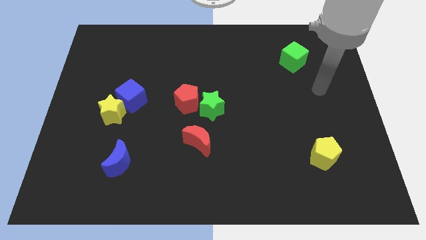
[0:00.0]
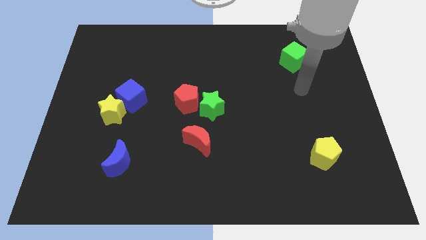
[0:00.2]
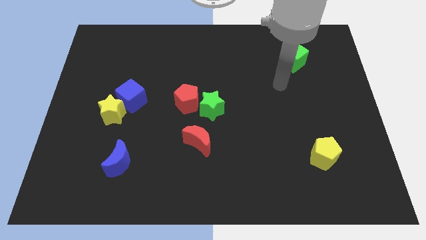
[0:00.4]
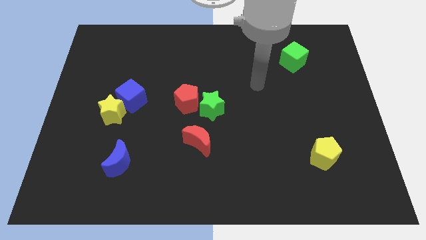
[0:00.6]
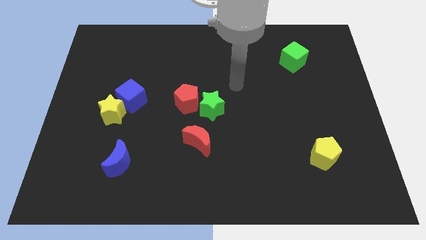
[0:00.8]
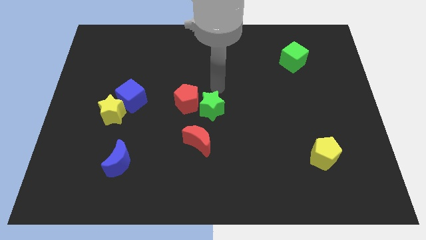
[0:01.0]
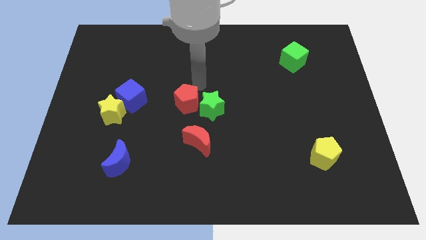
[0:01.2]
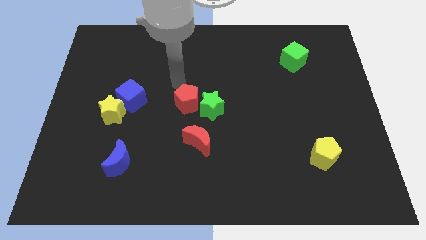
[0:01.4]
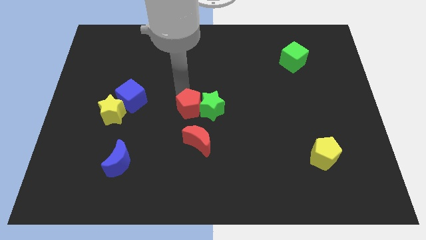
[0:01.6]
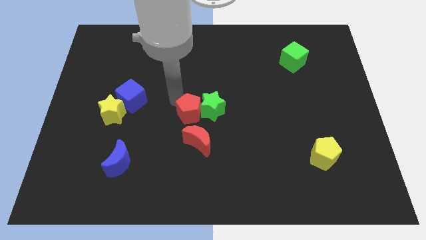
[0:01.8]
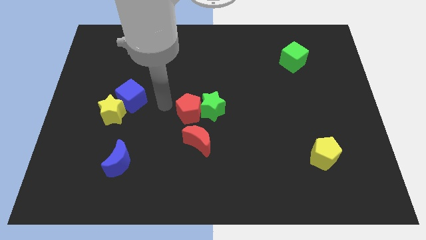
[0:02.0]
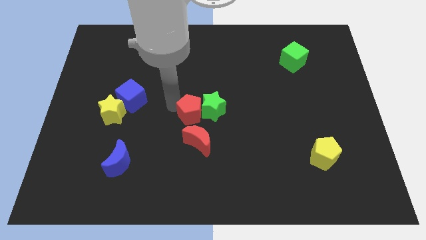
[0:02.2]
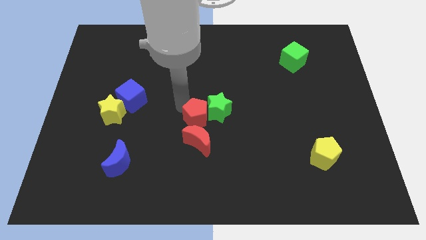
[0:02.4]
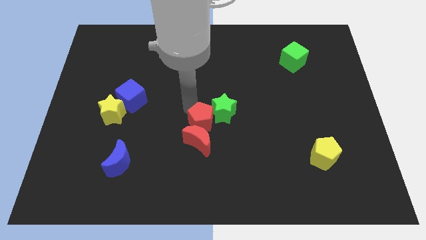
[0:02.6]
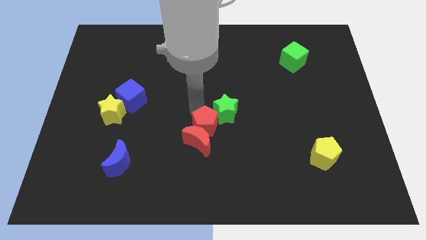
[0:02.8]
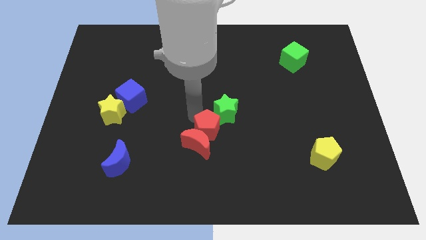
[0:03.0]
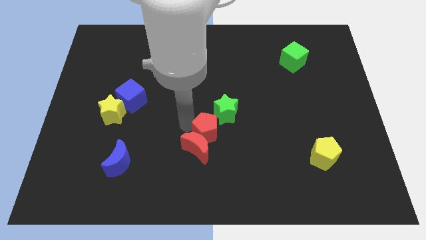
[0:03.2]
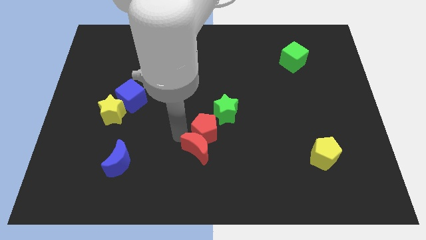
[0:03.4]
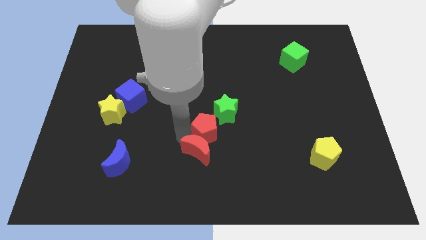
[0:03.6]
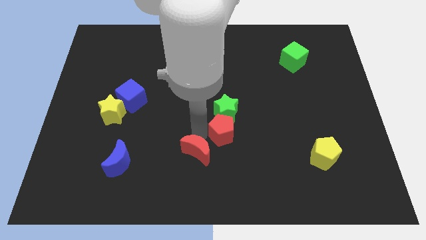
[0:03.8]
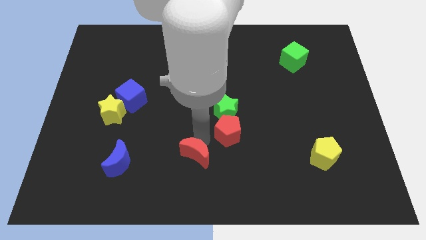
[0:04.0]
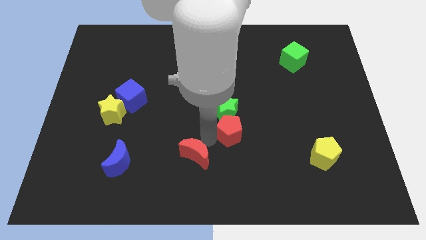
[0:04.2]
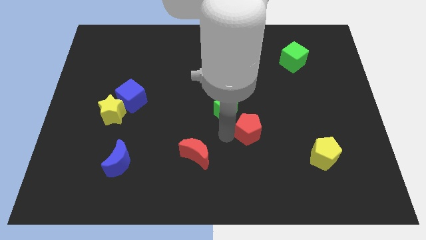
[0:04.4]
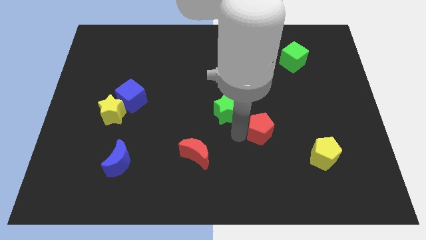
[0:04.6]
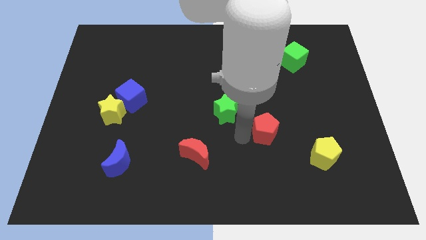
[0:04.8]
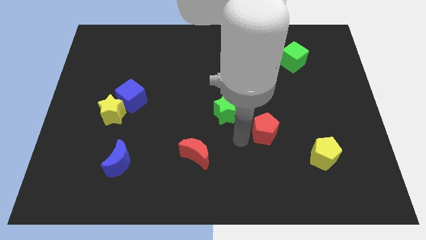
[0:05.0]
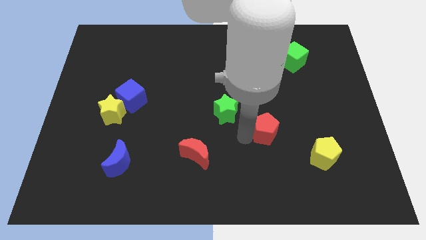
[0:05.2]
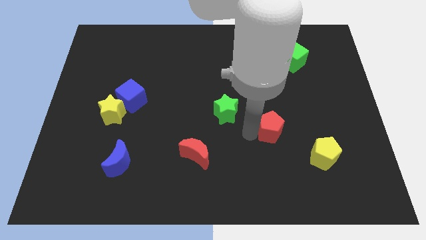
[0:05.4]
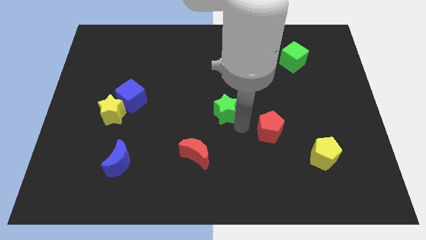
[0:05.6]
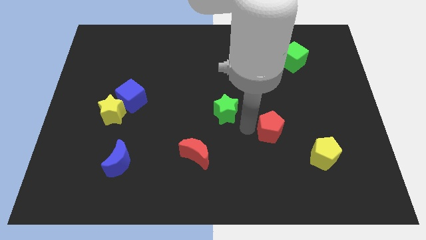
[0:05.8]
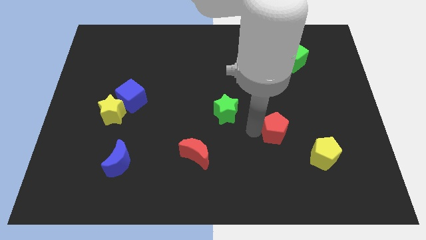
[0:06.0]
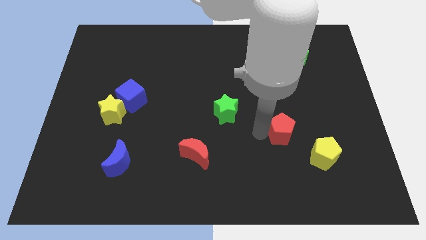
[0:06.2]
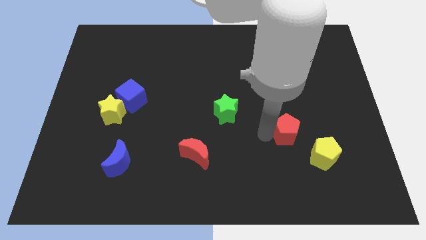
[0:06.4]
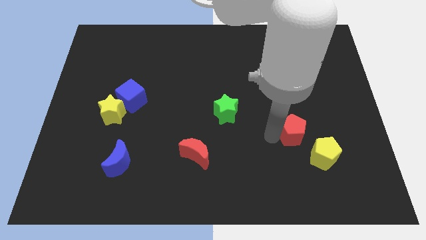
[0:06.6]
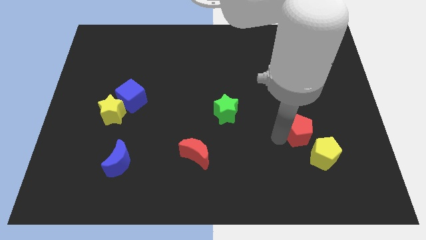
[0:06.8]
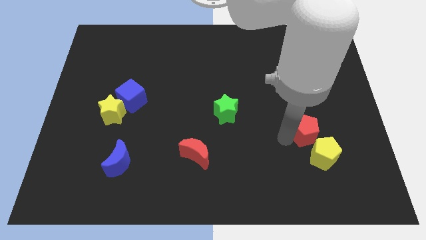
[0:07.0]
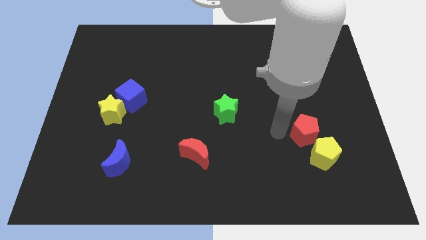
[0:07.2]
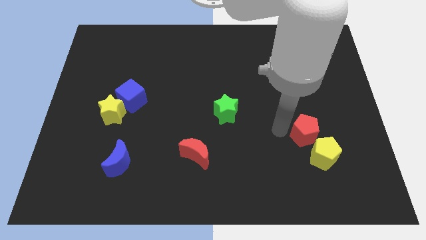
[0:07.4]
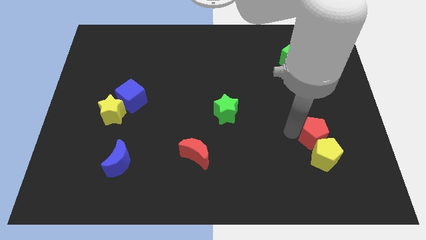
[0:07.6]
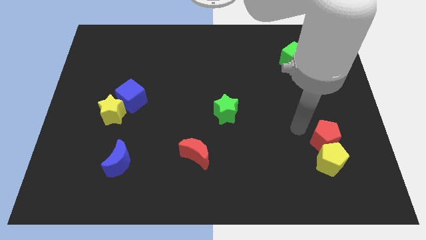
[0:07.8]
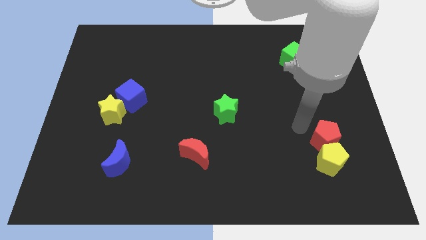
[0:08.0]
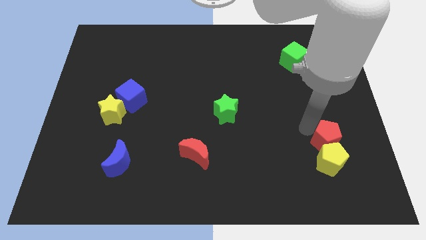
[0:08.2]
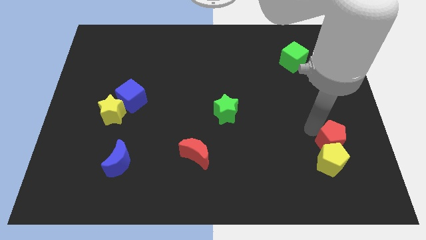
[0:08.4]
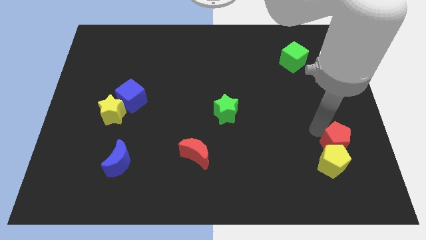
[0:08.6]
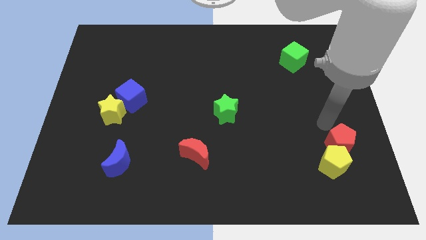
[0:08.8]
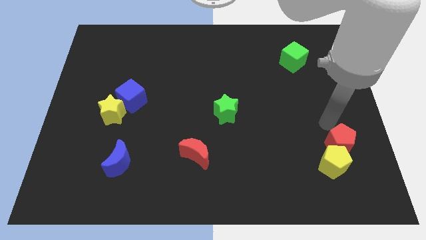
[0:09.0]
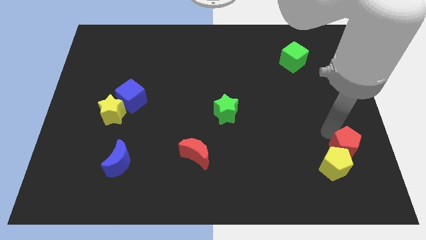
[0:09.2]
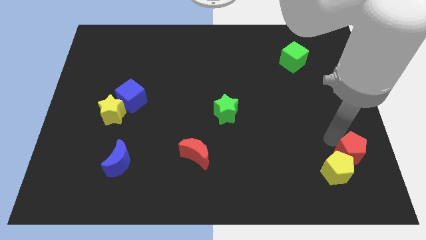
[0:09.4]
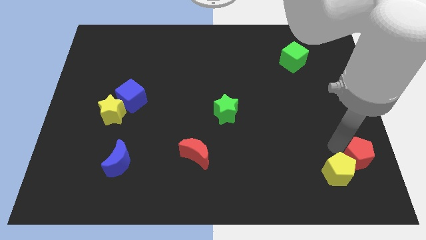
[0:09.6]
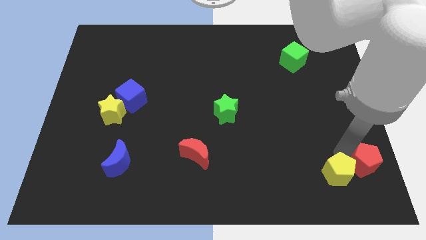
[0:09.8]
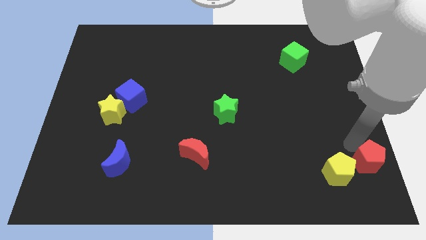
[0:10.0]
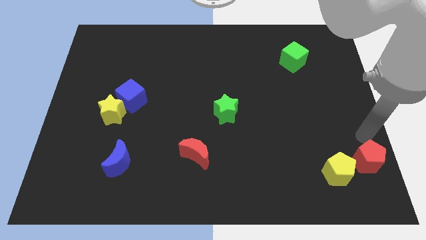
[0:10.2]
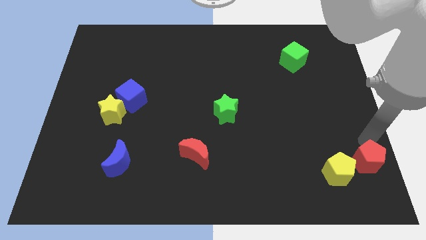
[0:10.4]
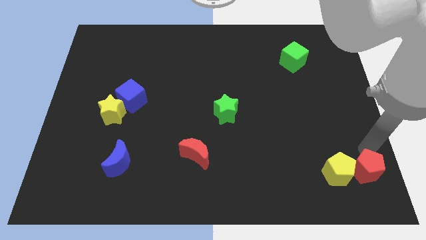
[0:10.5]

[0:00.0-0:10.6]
move the red pentagon to the bottom right of the yellow pentagon

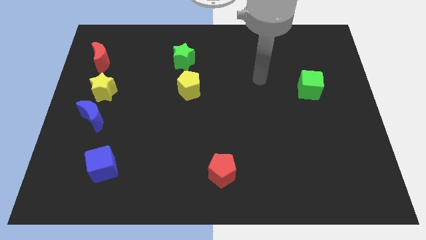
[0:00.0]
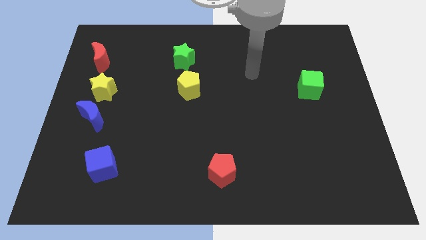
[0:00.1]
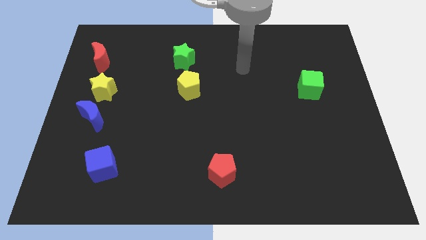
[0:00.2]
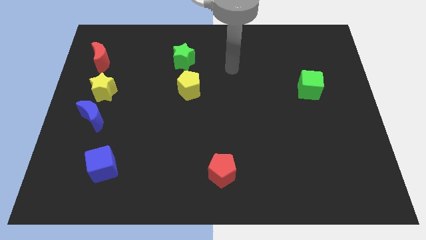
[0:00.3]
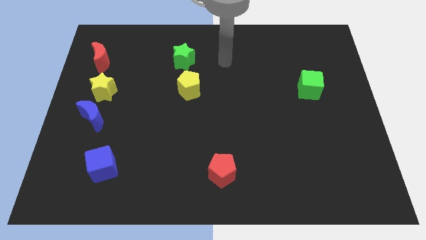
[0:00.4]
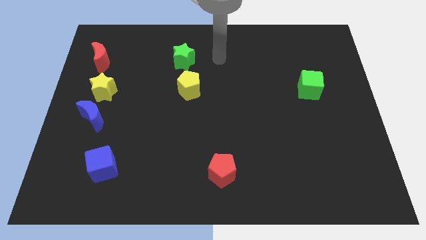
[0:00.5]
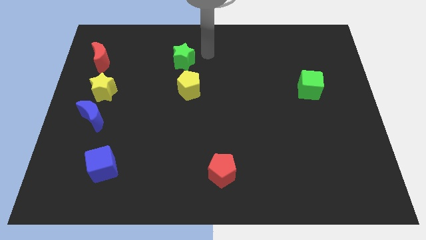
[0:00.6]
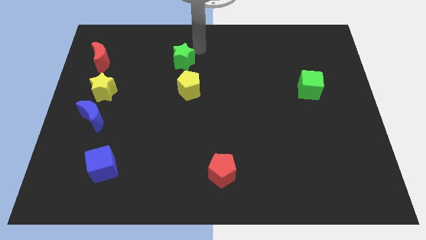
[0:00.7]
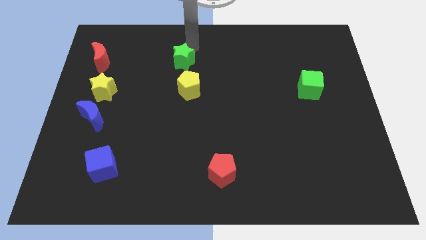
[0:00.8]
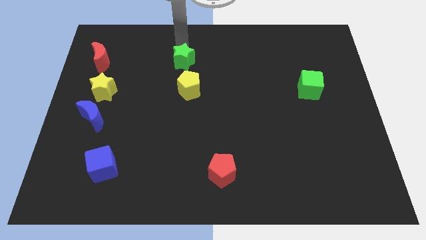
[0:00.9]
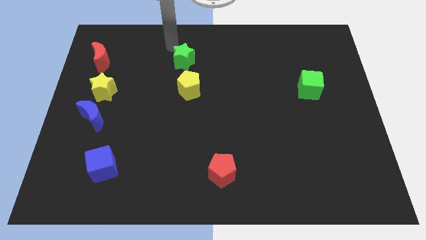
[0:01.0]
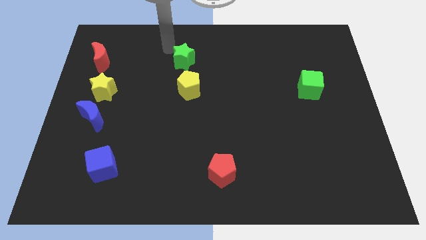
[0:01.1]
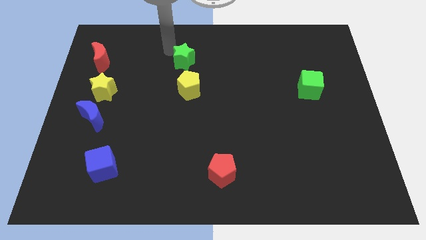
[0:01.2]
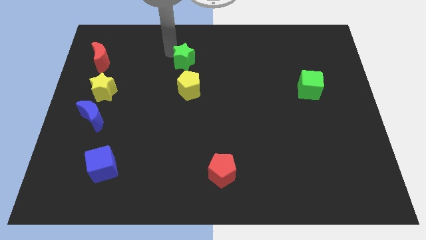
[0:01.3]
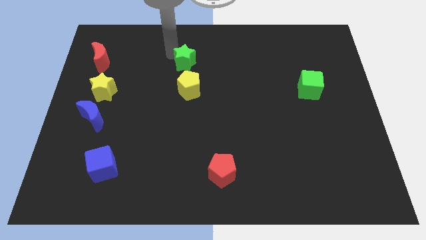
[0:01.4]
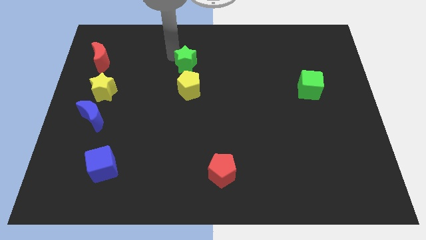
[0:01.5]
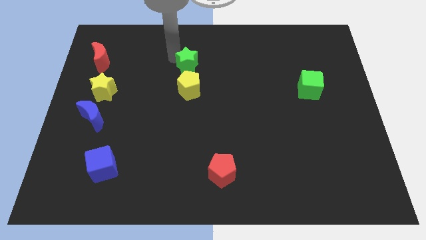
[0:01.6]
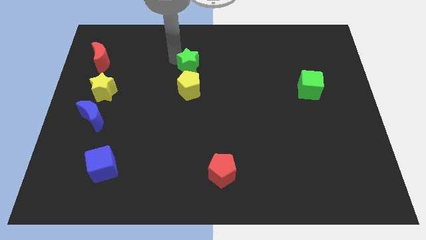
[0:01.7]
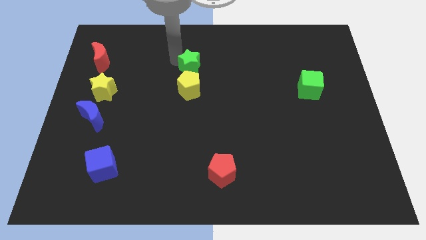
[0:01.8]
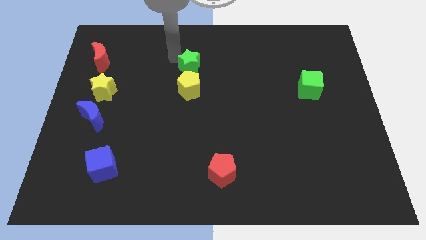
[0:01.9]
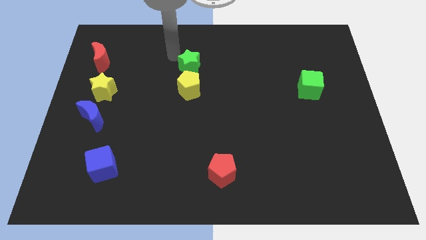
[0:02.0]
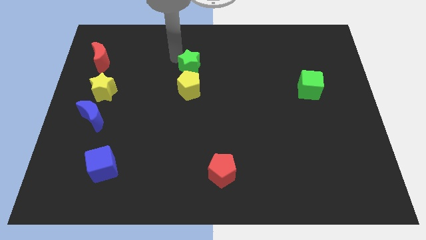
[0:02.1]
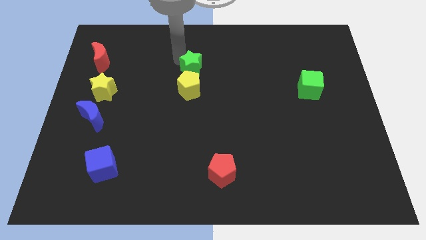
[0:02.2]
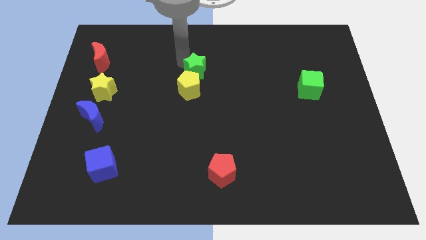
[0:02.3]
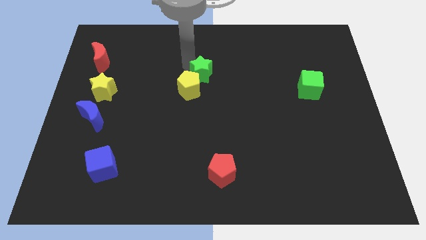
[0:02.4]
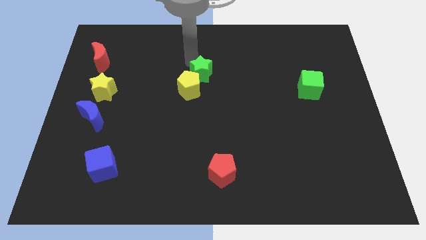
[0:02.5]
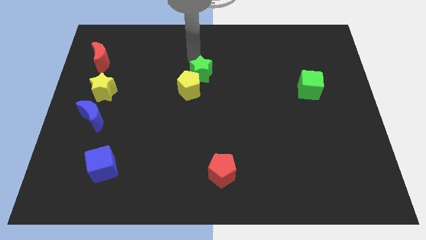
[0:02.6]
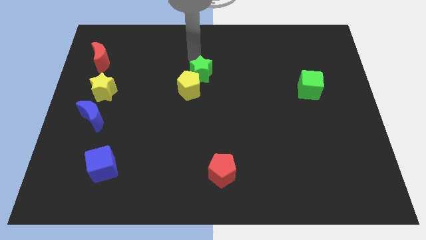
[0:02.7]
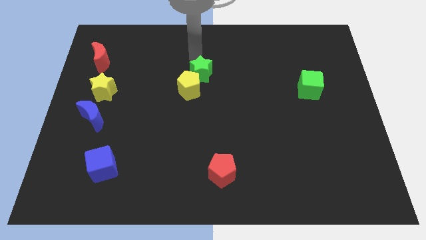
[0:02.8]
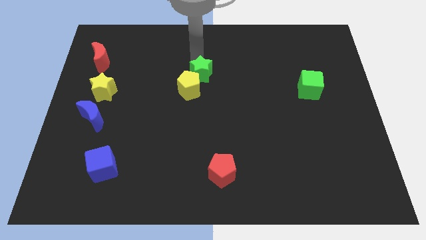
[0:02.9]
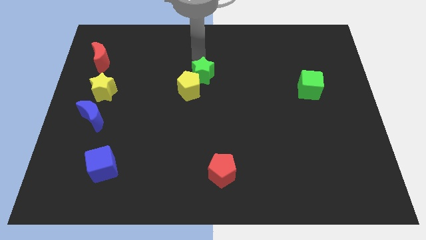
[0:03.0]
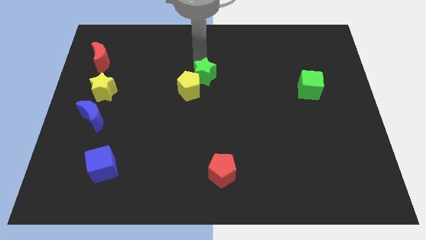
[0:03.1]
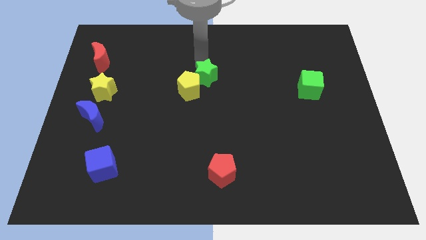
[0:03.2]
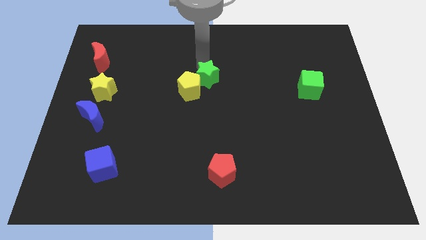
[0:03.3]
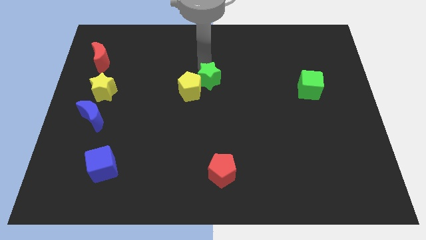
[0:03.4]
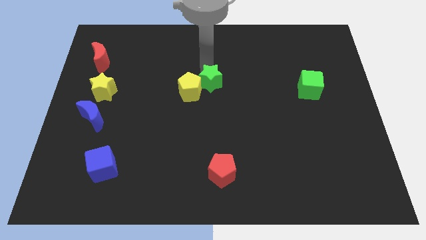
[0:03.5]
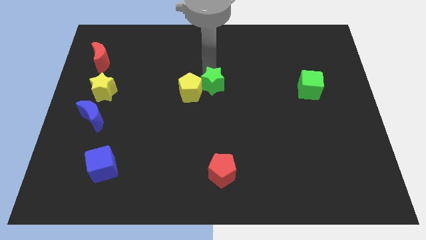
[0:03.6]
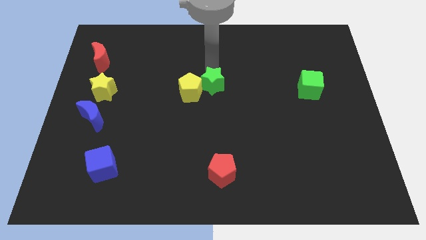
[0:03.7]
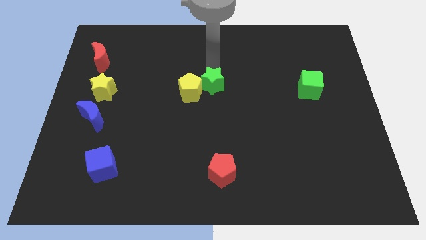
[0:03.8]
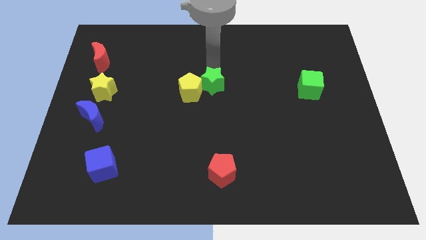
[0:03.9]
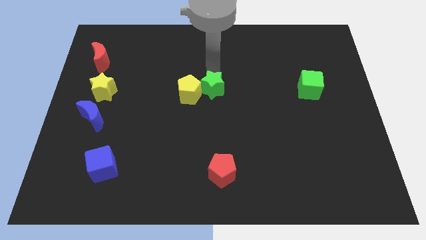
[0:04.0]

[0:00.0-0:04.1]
put the green star to the bottom right of the yellow pentagon
